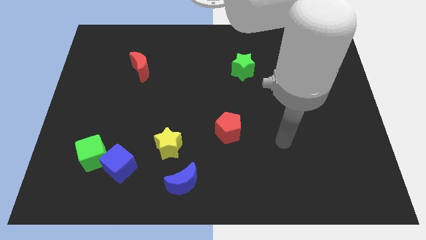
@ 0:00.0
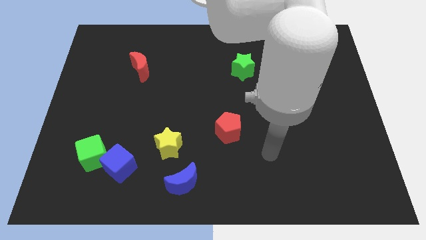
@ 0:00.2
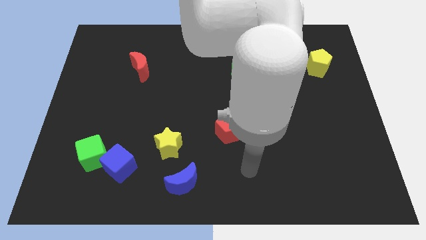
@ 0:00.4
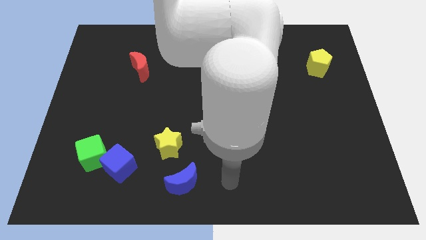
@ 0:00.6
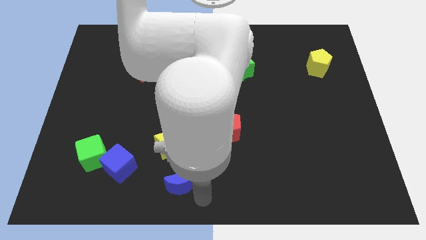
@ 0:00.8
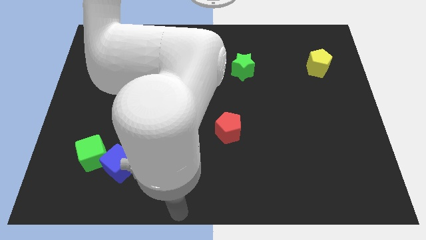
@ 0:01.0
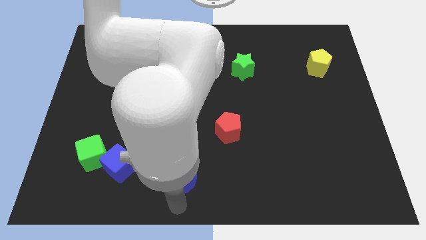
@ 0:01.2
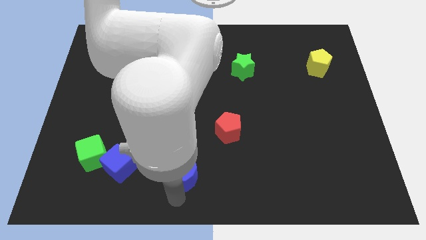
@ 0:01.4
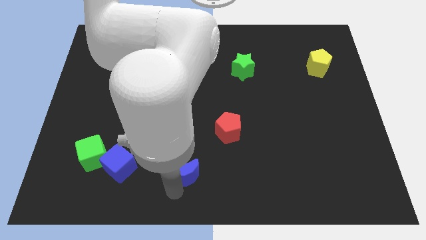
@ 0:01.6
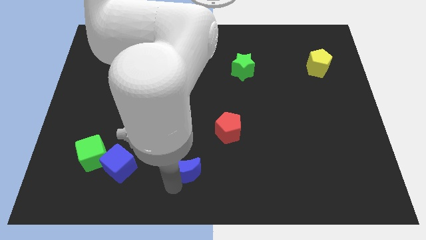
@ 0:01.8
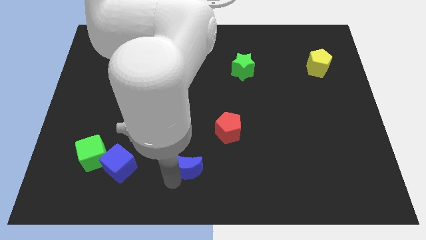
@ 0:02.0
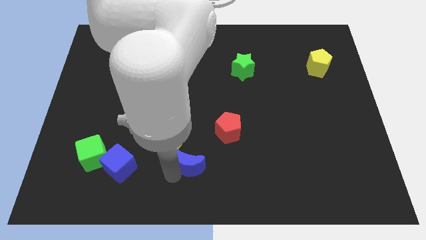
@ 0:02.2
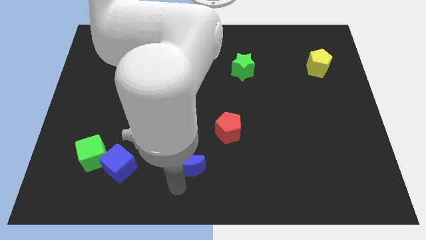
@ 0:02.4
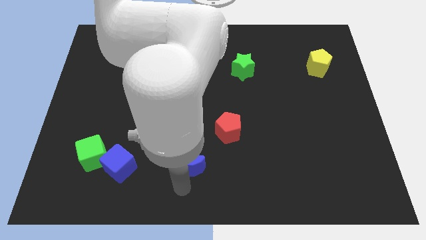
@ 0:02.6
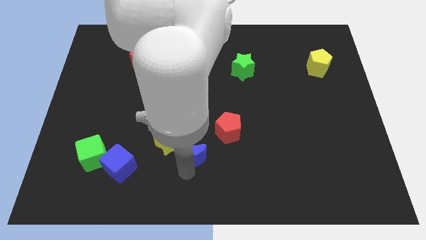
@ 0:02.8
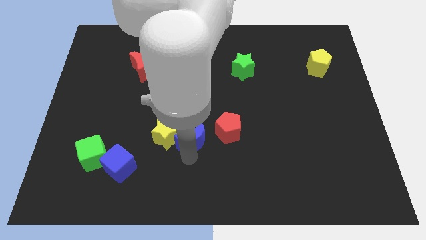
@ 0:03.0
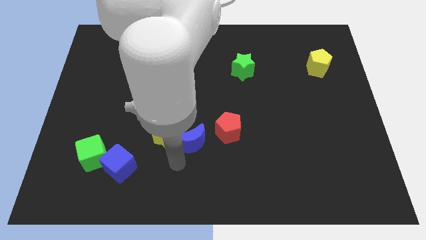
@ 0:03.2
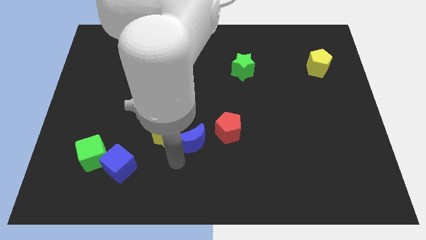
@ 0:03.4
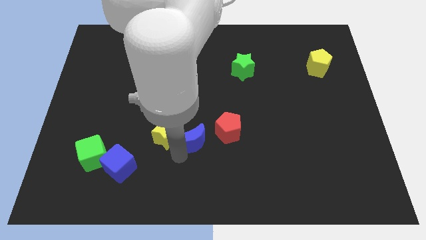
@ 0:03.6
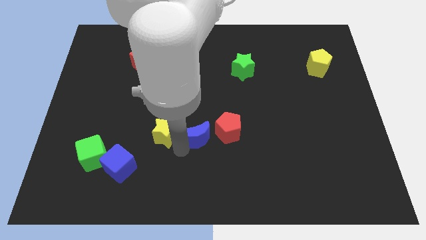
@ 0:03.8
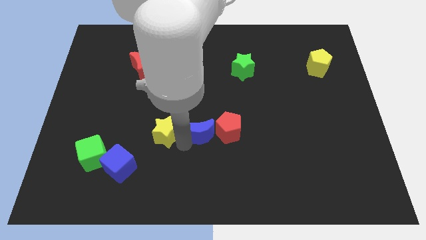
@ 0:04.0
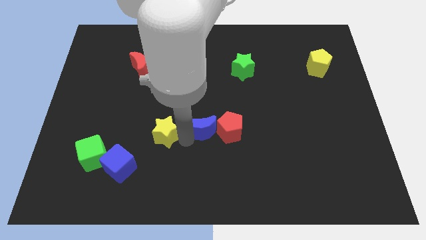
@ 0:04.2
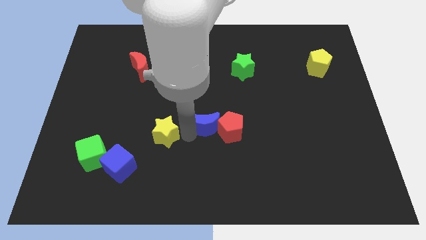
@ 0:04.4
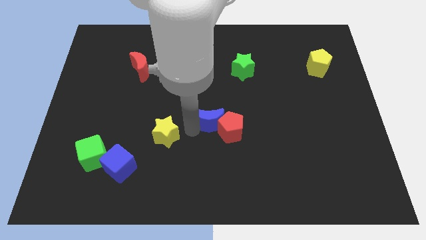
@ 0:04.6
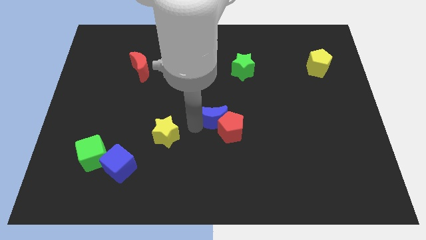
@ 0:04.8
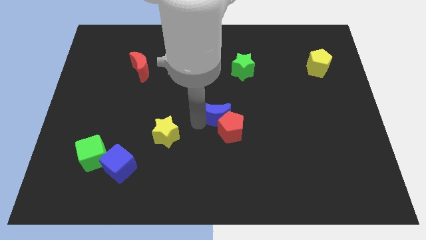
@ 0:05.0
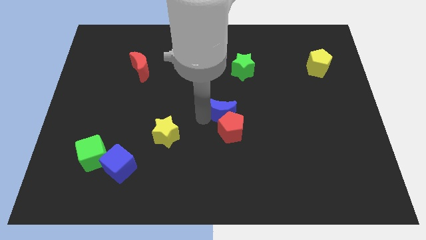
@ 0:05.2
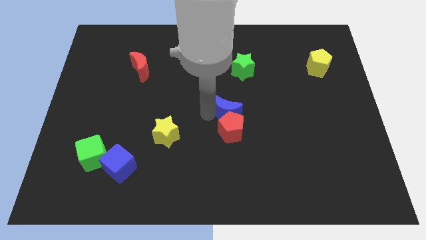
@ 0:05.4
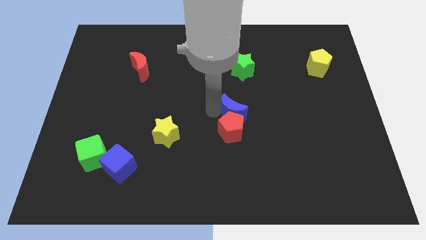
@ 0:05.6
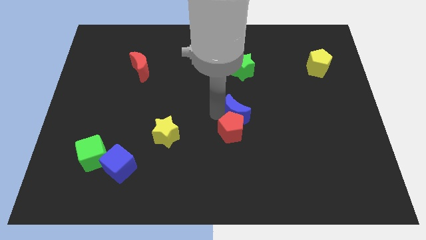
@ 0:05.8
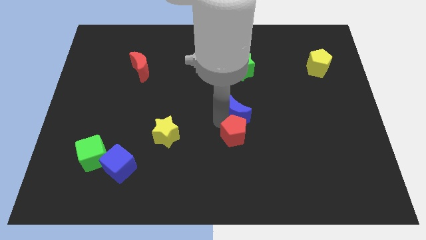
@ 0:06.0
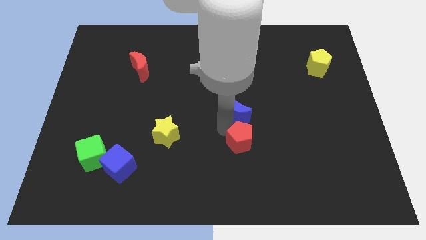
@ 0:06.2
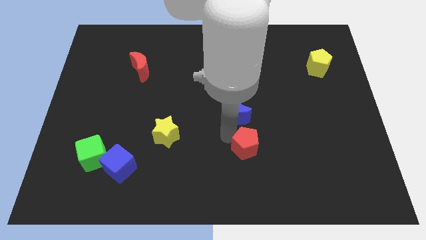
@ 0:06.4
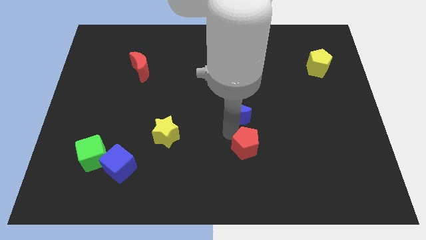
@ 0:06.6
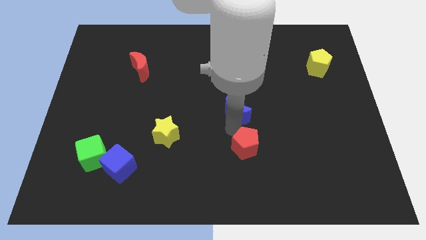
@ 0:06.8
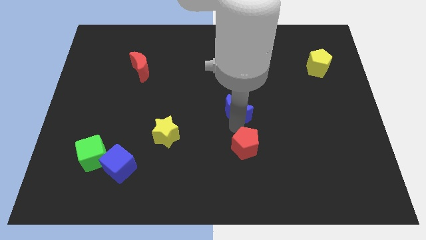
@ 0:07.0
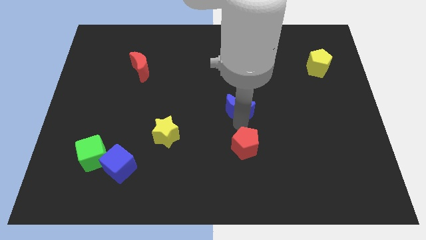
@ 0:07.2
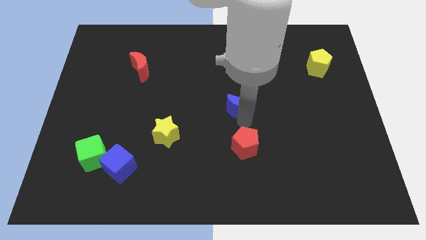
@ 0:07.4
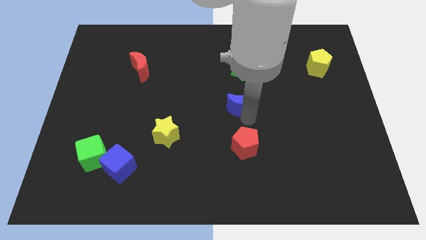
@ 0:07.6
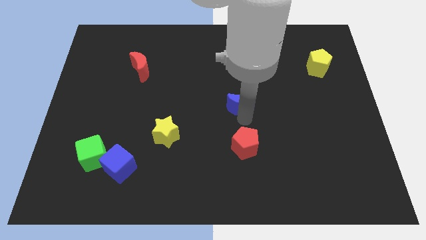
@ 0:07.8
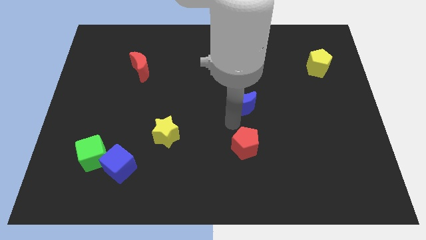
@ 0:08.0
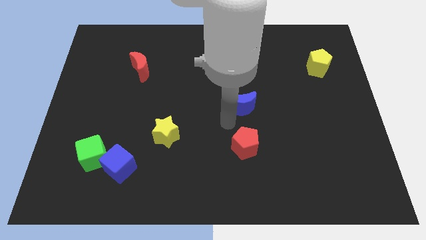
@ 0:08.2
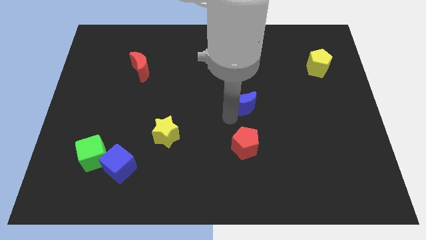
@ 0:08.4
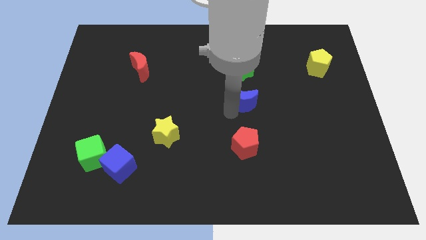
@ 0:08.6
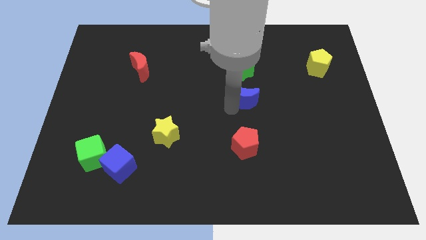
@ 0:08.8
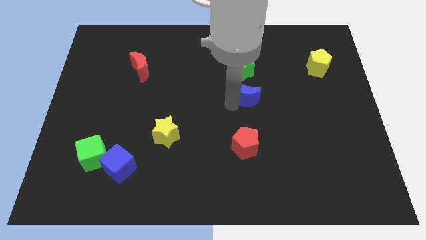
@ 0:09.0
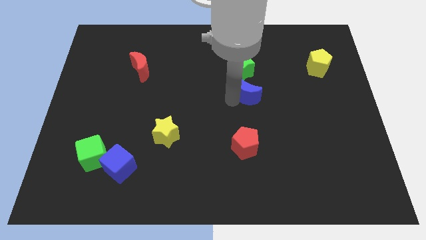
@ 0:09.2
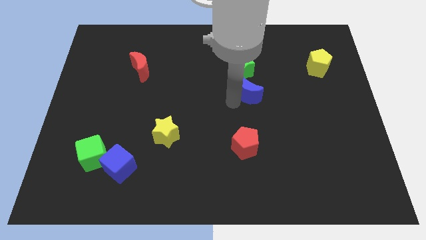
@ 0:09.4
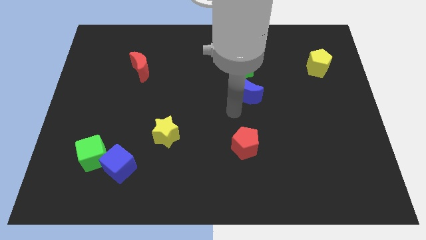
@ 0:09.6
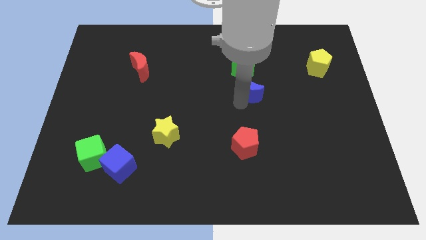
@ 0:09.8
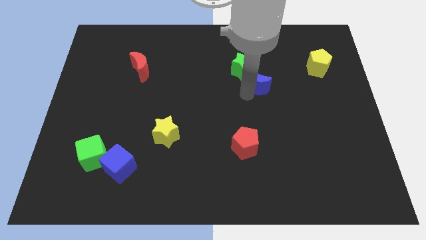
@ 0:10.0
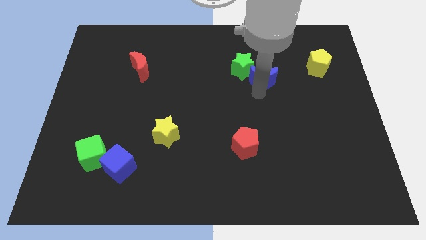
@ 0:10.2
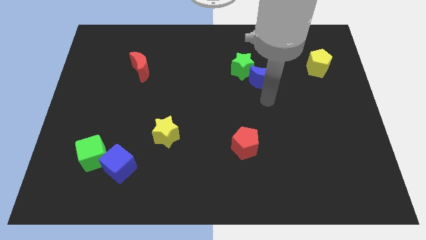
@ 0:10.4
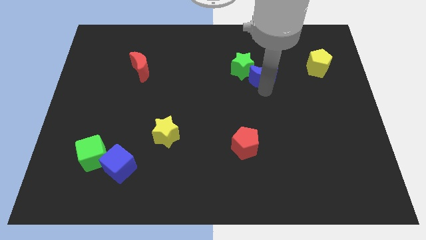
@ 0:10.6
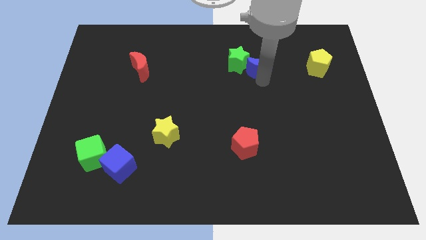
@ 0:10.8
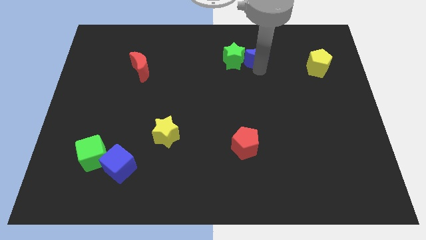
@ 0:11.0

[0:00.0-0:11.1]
push the blue moon to the top right side of the green star

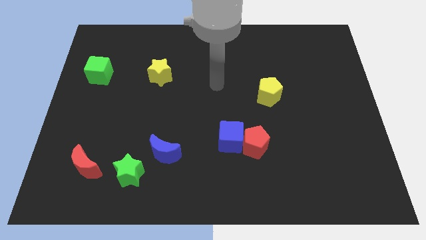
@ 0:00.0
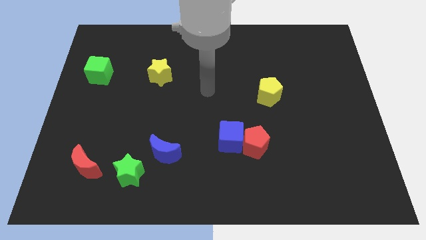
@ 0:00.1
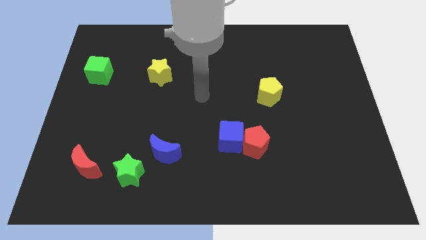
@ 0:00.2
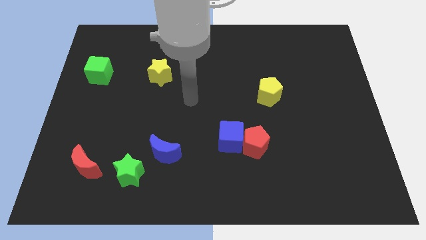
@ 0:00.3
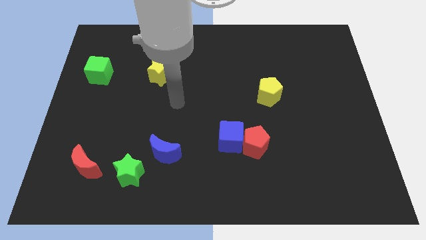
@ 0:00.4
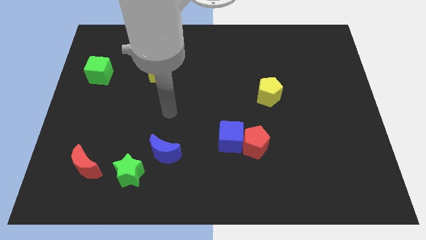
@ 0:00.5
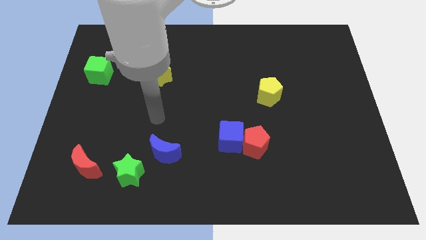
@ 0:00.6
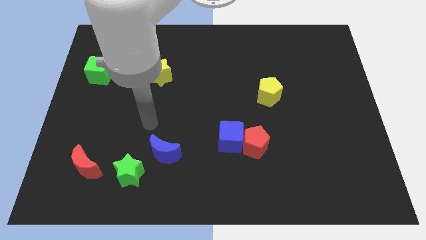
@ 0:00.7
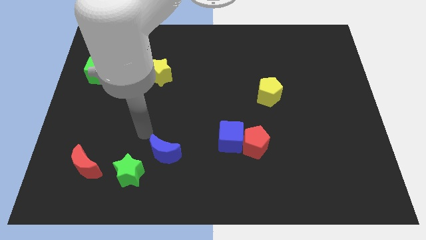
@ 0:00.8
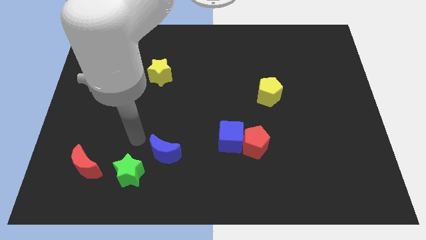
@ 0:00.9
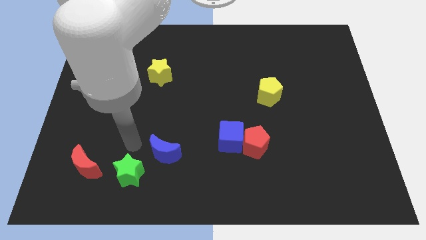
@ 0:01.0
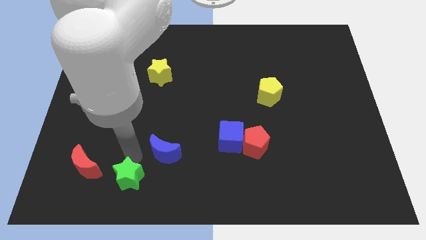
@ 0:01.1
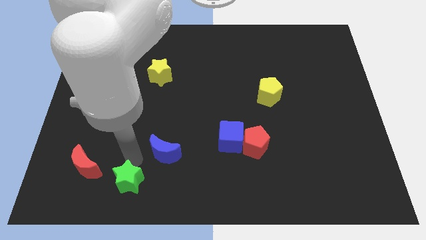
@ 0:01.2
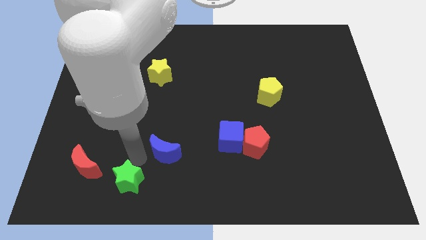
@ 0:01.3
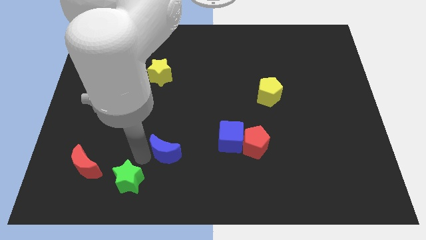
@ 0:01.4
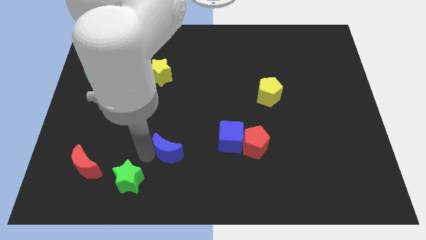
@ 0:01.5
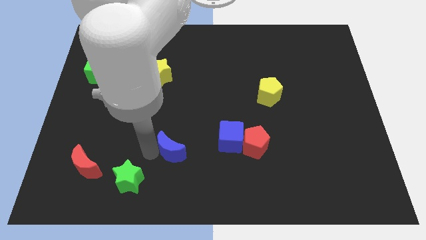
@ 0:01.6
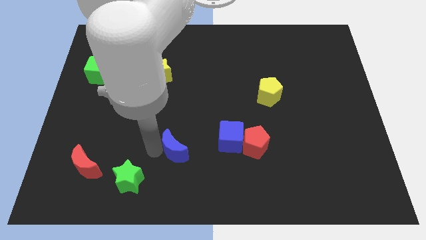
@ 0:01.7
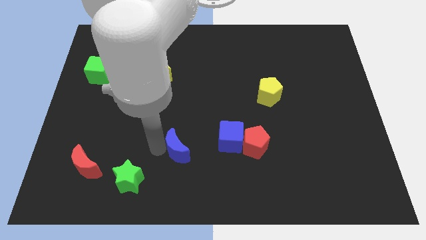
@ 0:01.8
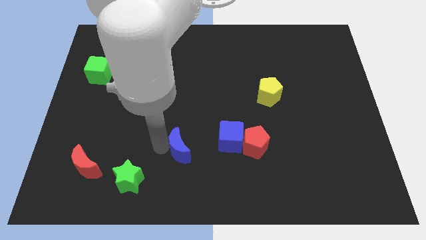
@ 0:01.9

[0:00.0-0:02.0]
put the blue moon to the left of the red pentagon
